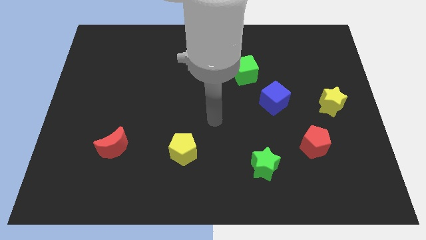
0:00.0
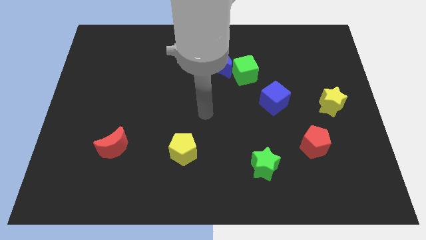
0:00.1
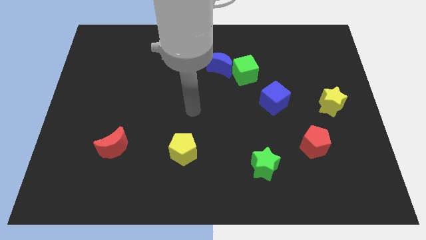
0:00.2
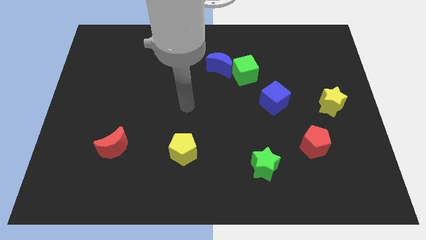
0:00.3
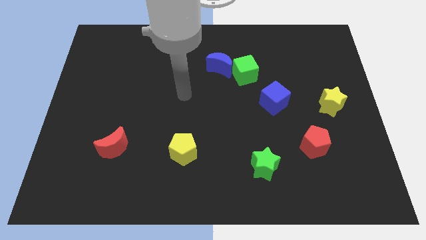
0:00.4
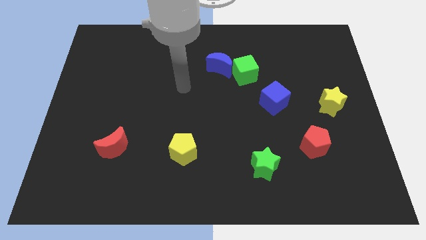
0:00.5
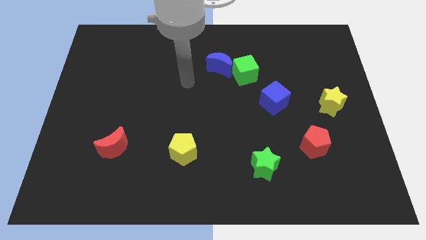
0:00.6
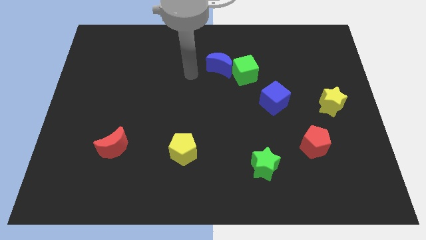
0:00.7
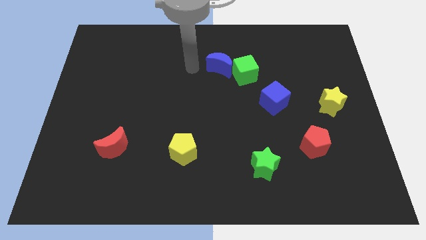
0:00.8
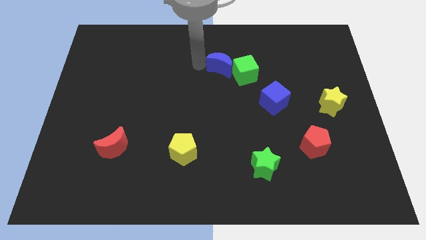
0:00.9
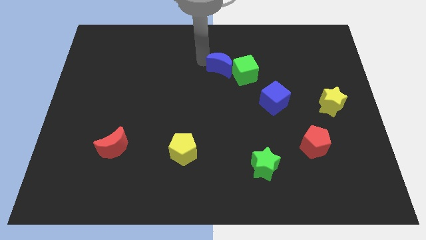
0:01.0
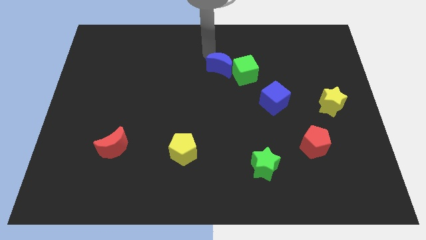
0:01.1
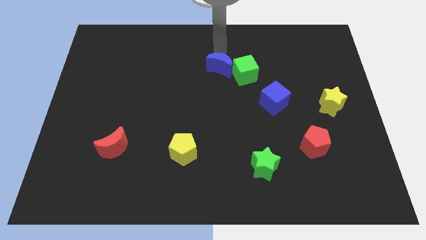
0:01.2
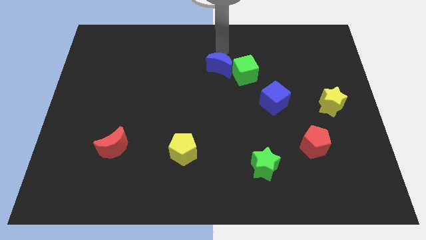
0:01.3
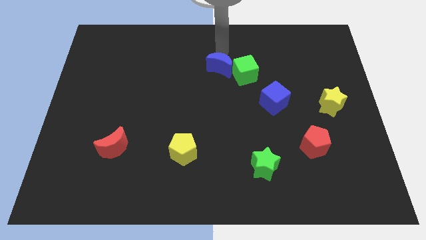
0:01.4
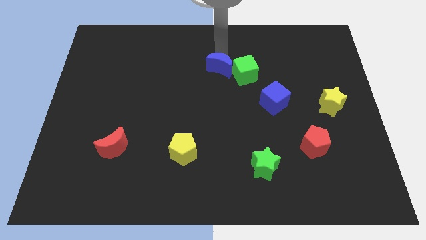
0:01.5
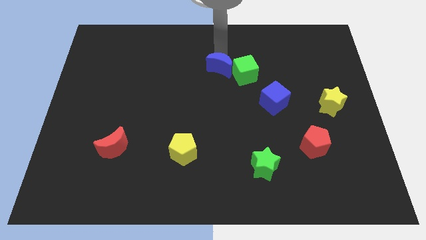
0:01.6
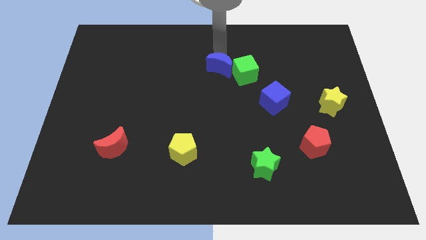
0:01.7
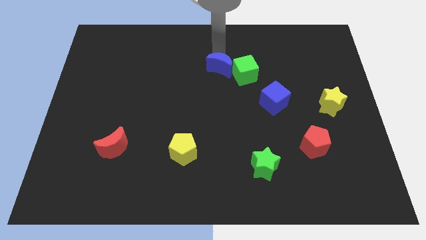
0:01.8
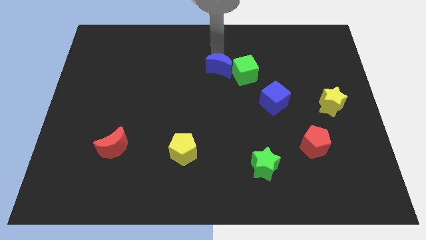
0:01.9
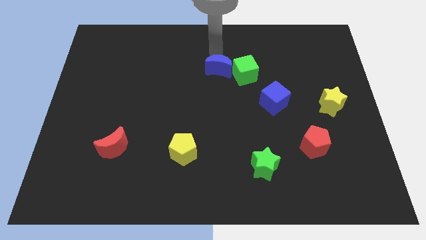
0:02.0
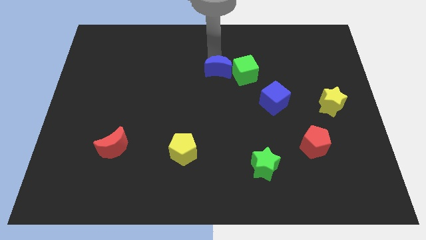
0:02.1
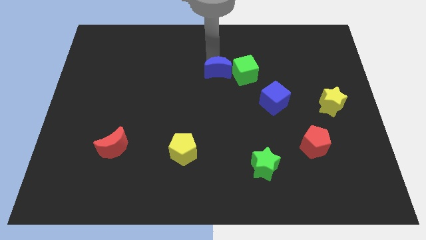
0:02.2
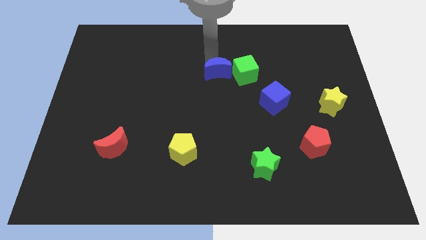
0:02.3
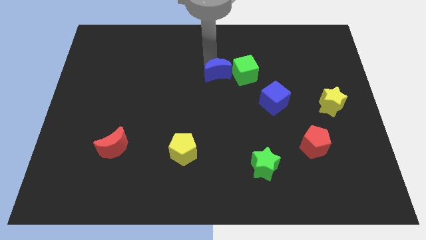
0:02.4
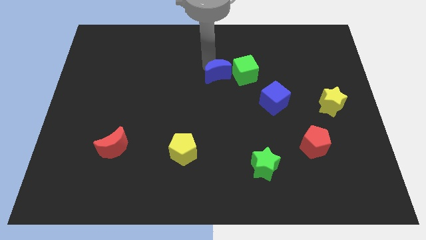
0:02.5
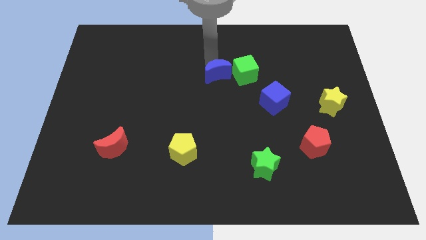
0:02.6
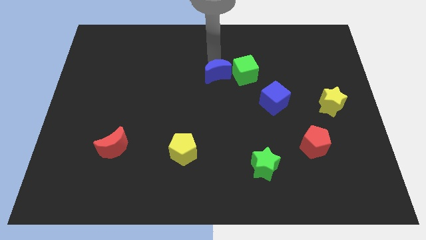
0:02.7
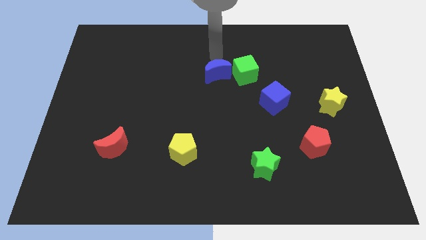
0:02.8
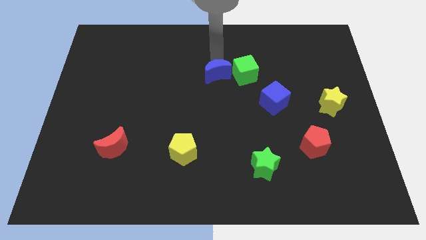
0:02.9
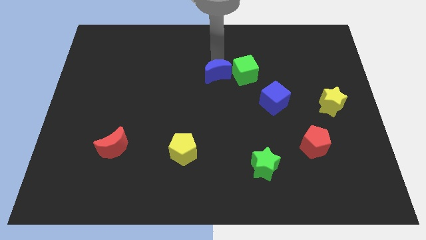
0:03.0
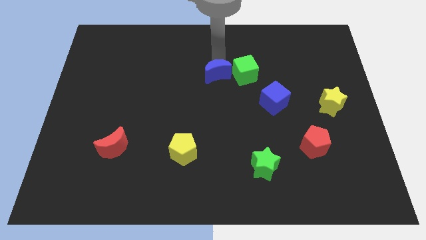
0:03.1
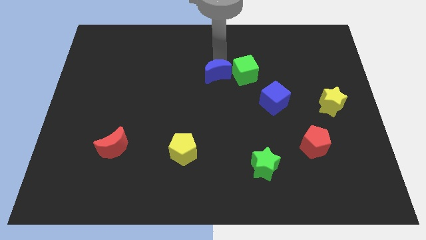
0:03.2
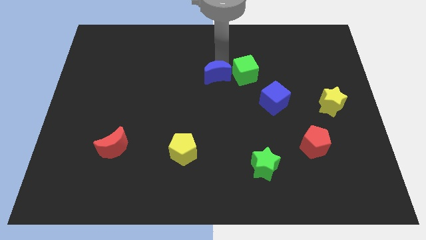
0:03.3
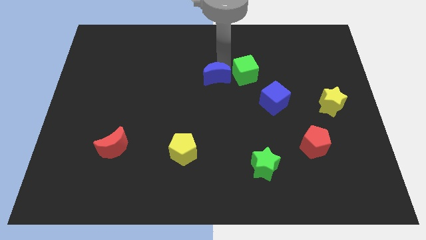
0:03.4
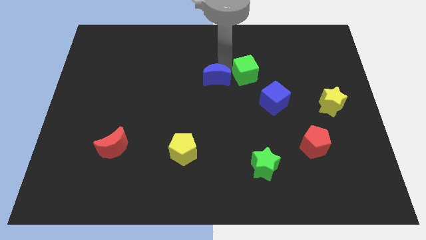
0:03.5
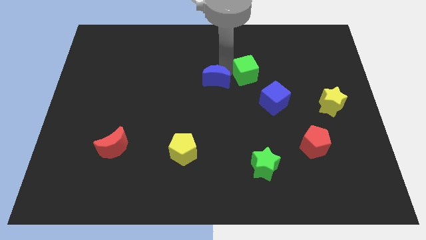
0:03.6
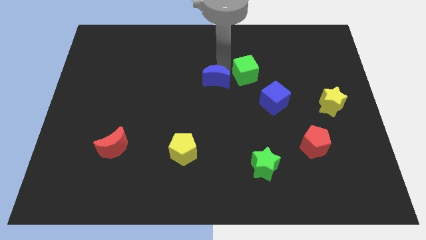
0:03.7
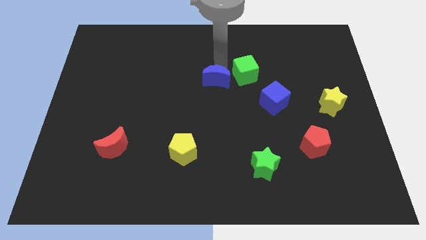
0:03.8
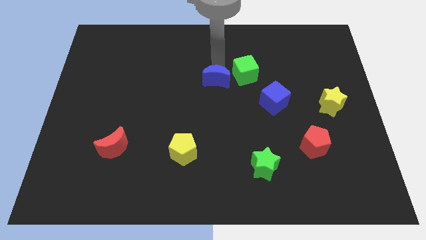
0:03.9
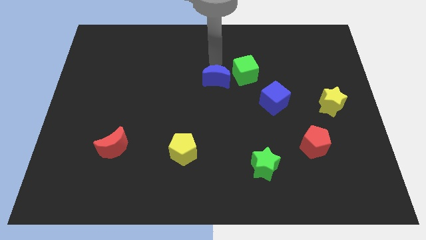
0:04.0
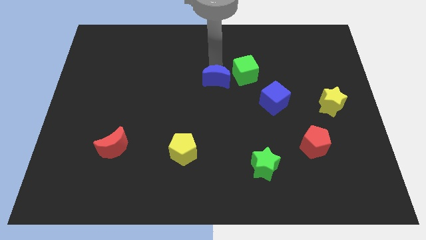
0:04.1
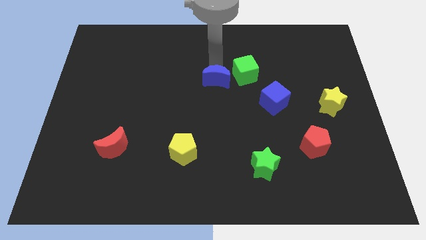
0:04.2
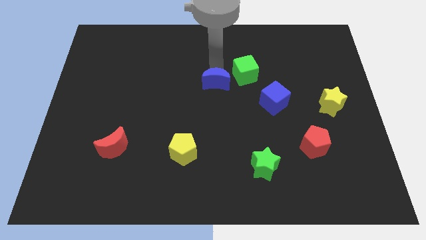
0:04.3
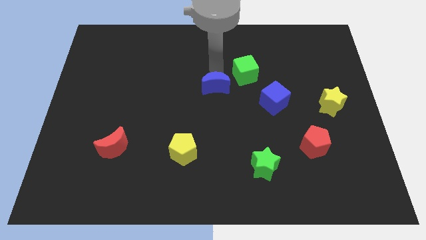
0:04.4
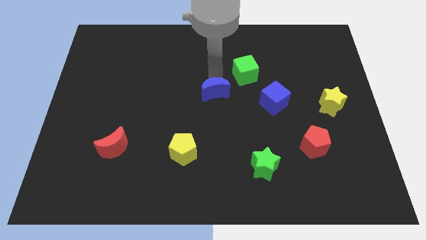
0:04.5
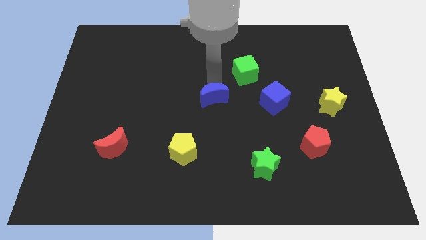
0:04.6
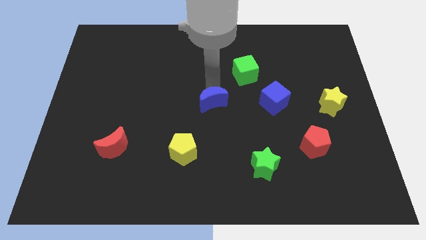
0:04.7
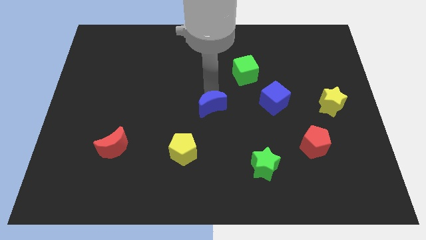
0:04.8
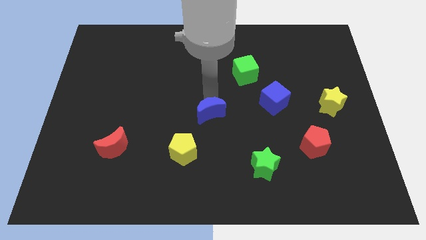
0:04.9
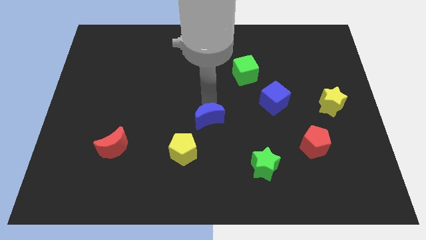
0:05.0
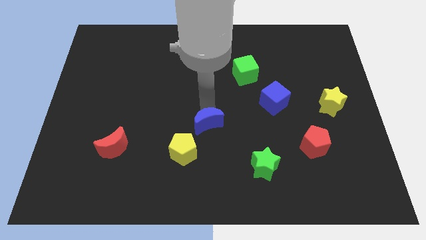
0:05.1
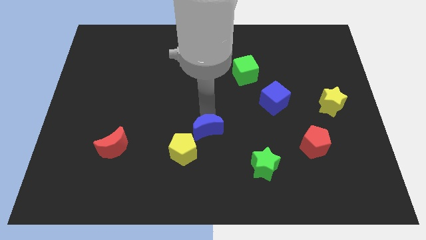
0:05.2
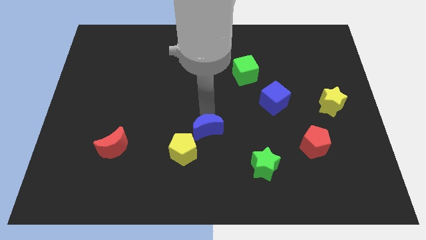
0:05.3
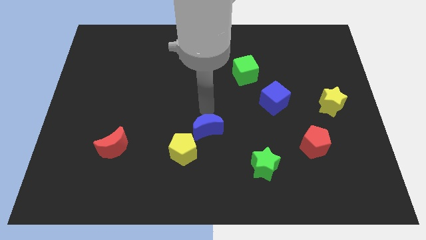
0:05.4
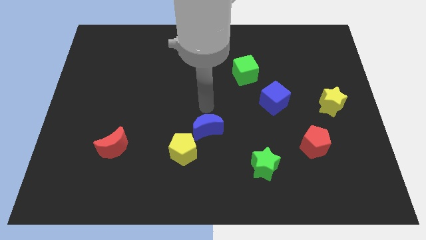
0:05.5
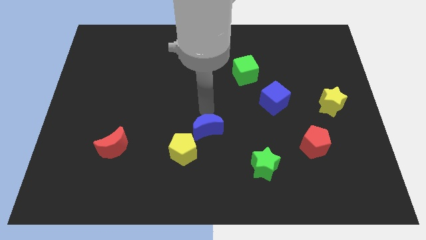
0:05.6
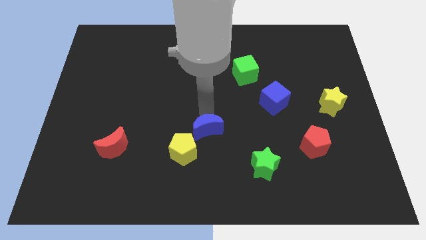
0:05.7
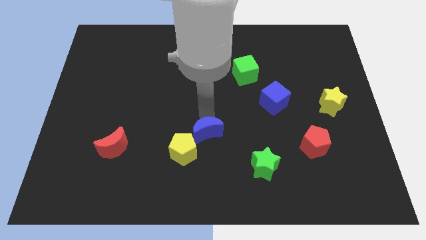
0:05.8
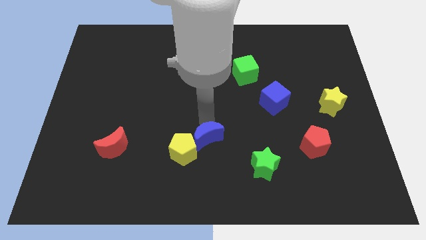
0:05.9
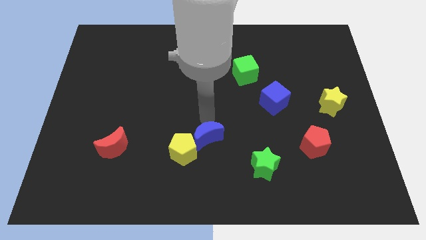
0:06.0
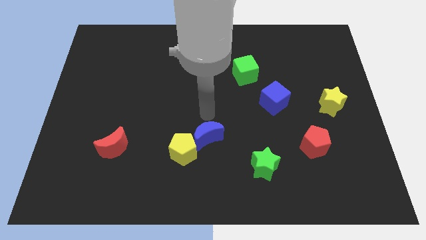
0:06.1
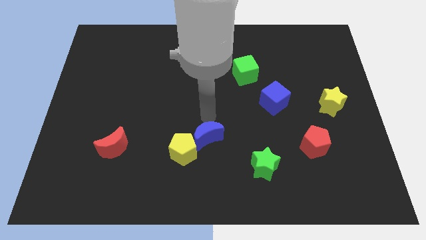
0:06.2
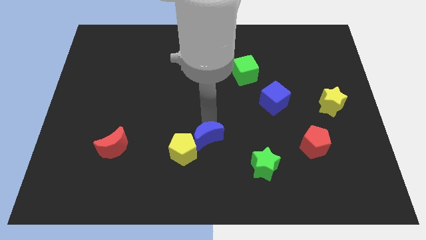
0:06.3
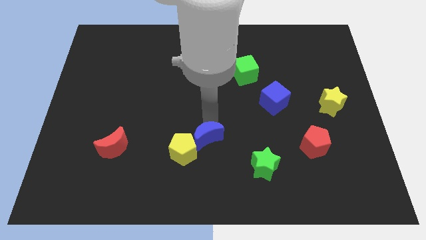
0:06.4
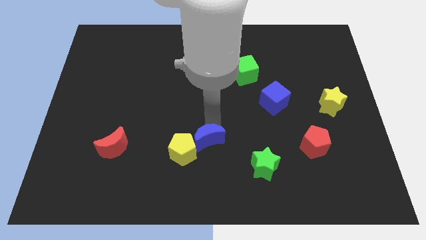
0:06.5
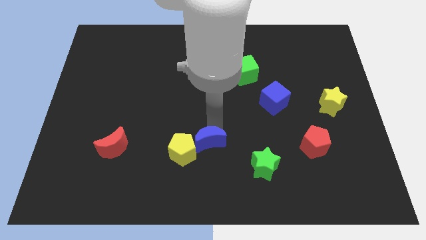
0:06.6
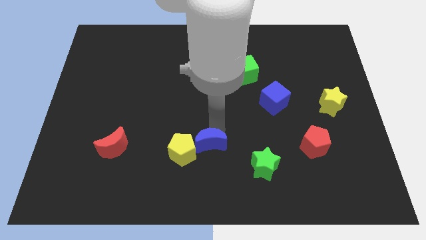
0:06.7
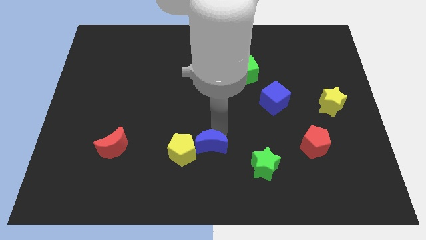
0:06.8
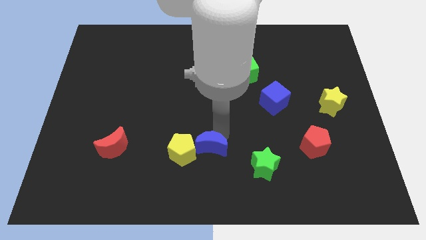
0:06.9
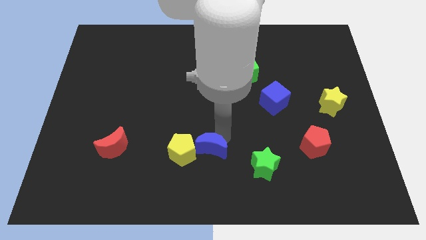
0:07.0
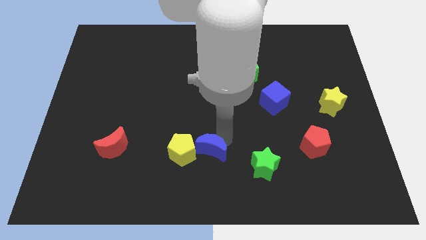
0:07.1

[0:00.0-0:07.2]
slide the blue moon to the bottom right side of the yellow pentagon
